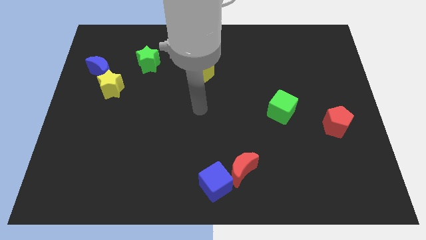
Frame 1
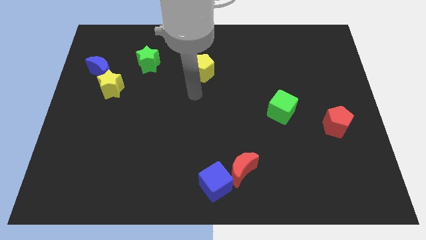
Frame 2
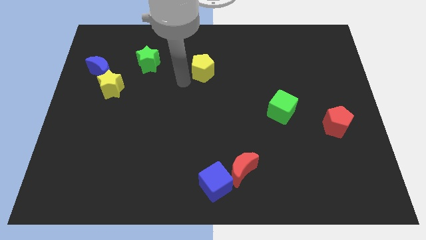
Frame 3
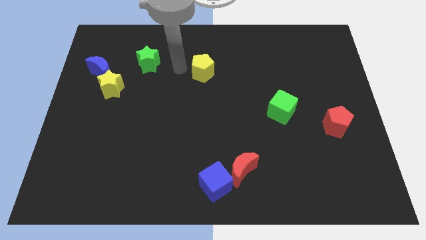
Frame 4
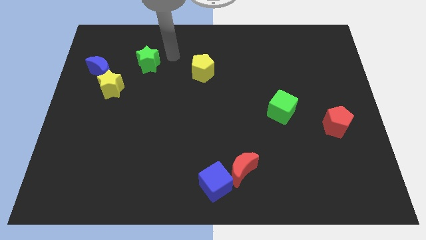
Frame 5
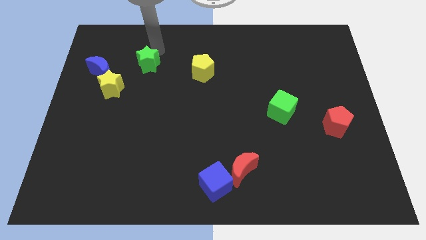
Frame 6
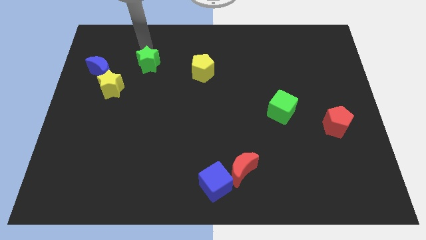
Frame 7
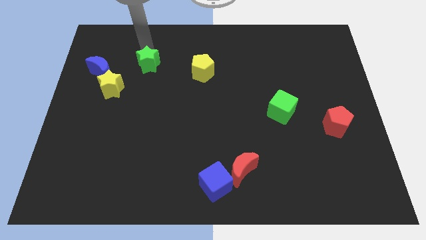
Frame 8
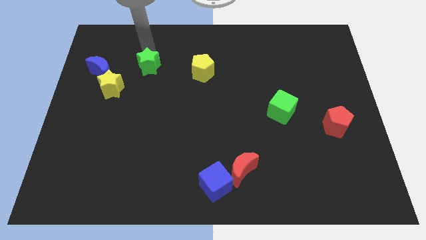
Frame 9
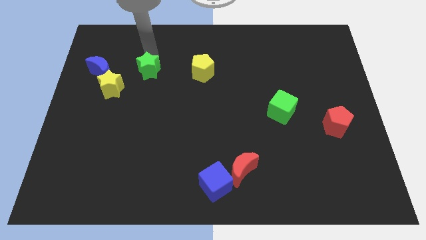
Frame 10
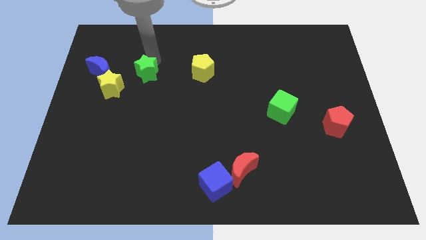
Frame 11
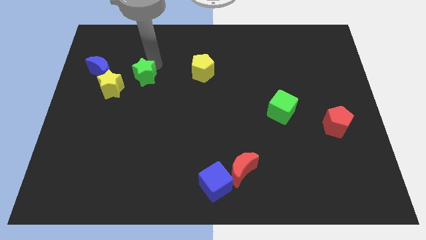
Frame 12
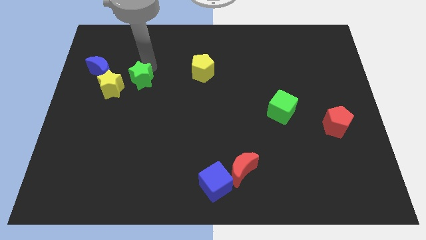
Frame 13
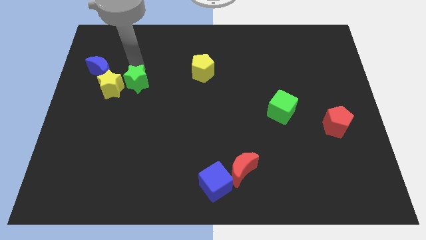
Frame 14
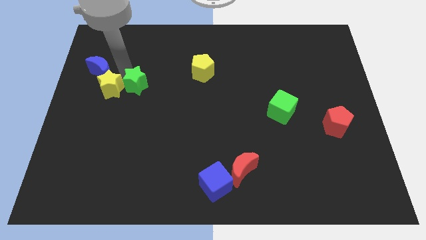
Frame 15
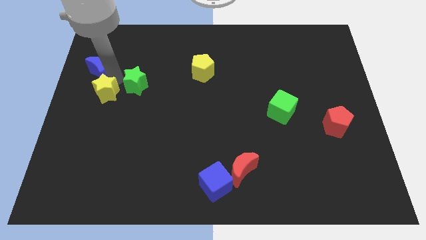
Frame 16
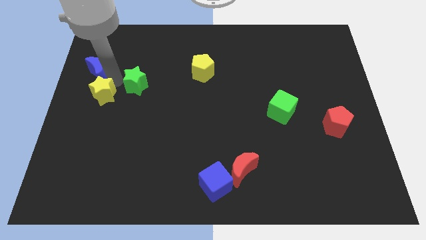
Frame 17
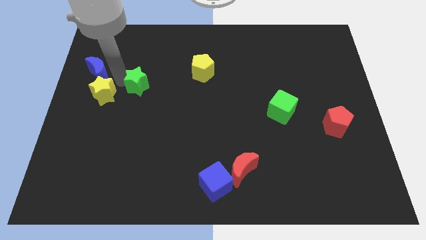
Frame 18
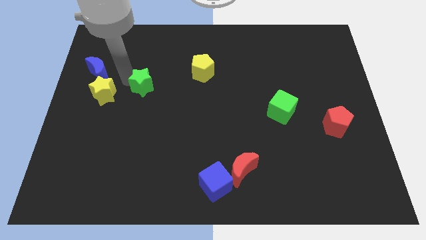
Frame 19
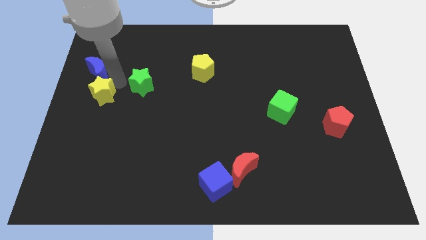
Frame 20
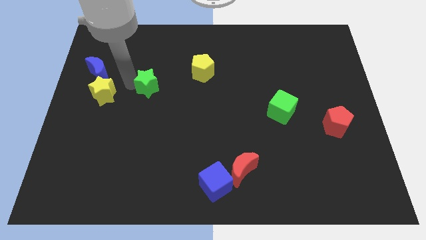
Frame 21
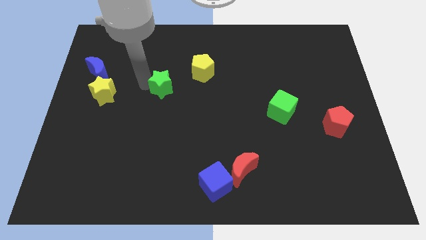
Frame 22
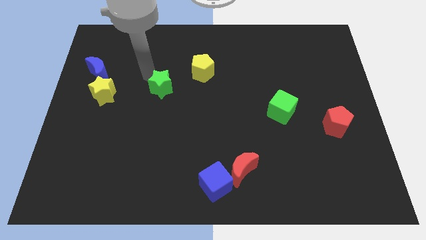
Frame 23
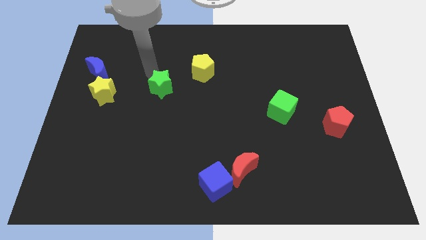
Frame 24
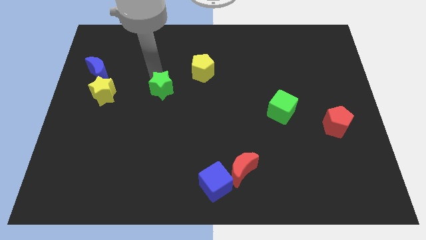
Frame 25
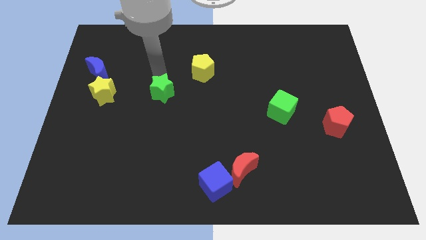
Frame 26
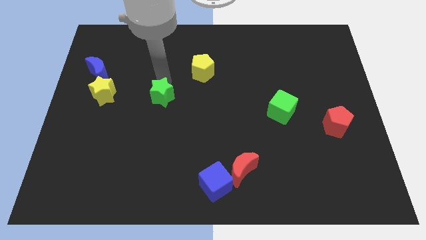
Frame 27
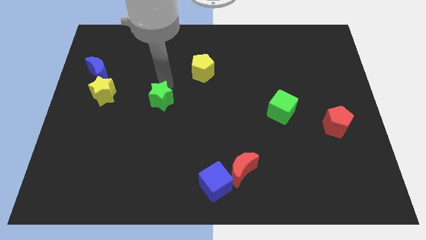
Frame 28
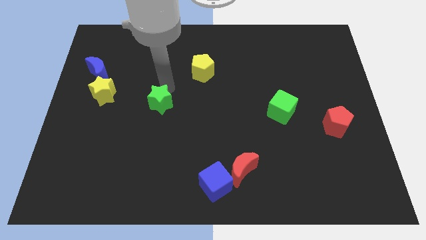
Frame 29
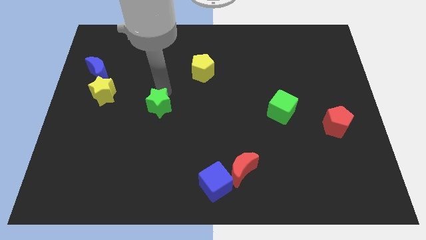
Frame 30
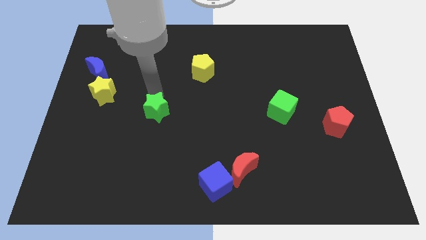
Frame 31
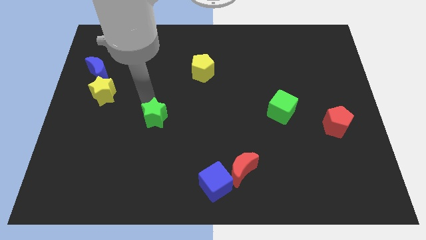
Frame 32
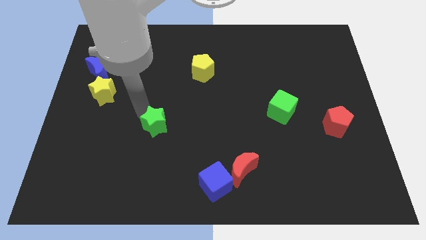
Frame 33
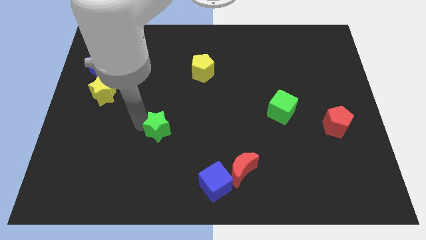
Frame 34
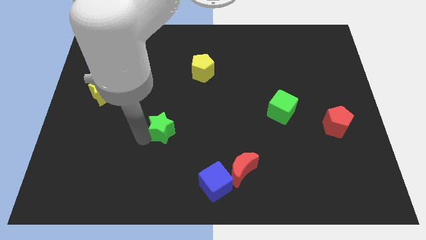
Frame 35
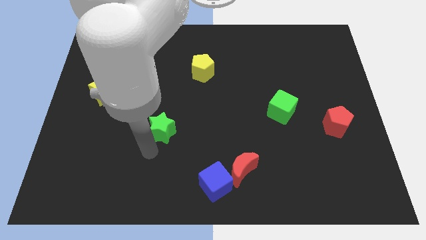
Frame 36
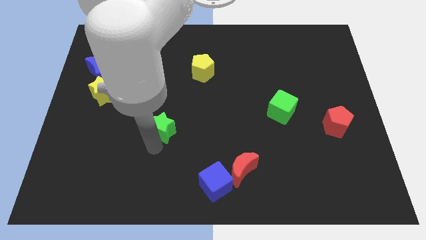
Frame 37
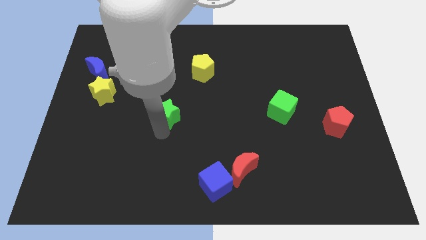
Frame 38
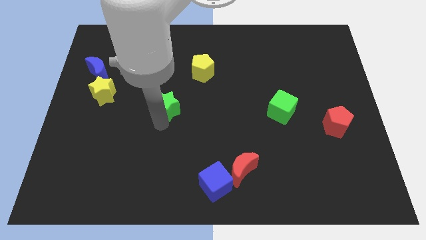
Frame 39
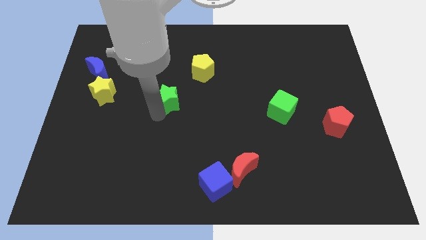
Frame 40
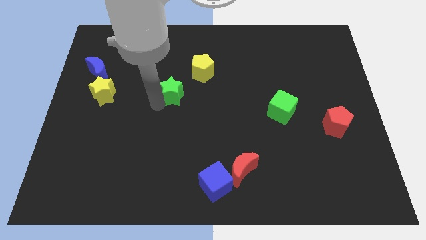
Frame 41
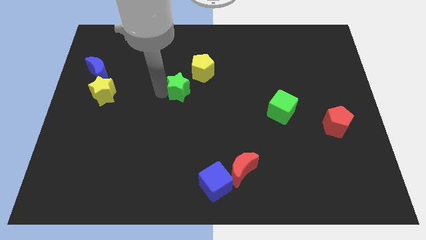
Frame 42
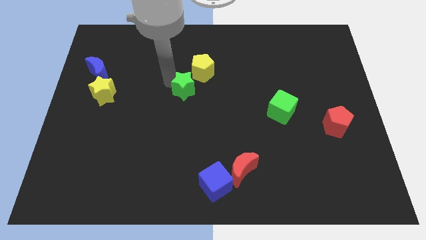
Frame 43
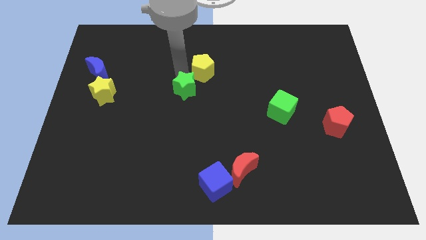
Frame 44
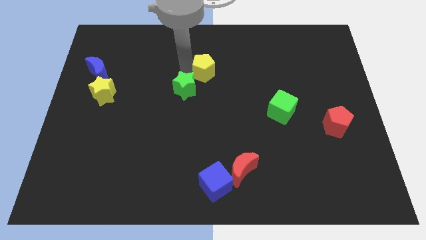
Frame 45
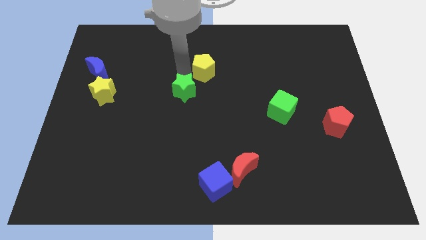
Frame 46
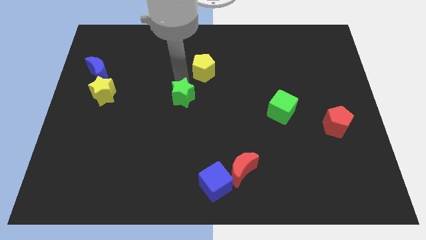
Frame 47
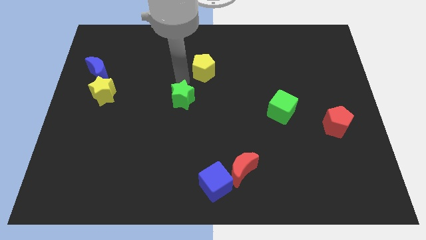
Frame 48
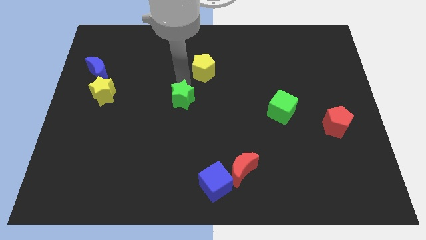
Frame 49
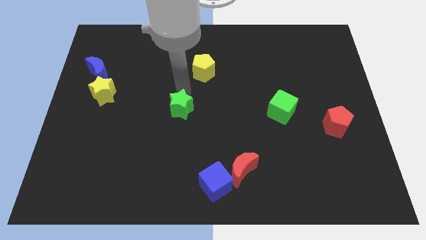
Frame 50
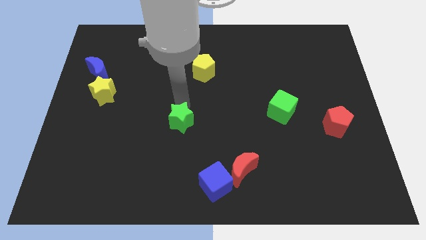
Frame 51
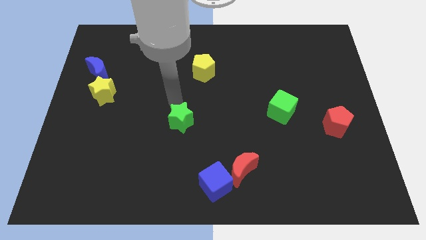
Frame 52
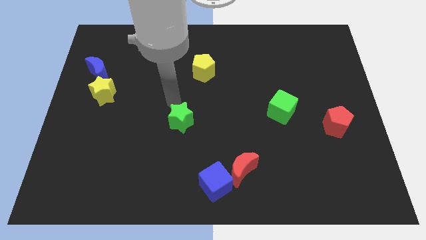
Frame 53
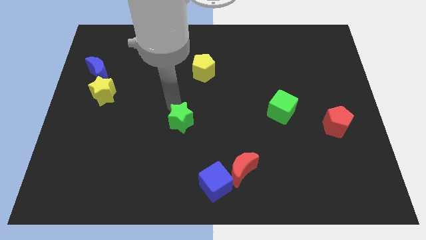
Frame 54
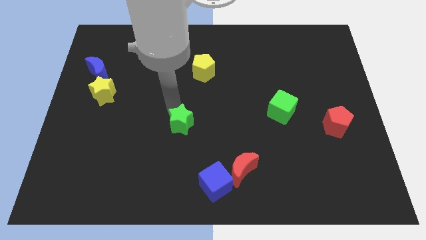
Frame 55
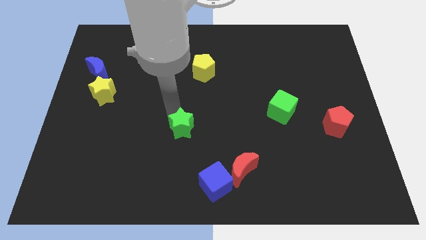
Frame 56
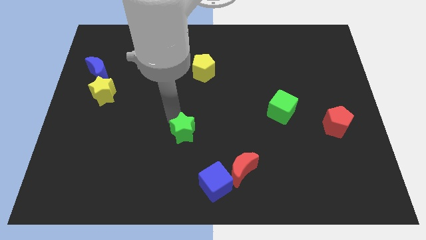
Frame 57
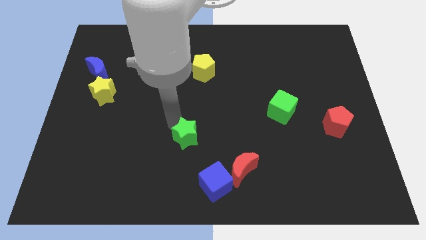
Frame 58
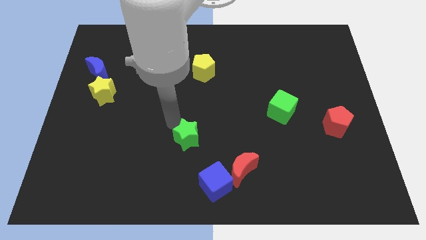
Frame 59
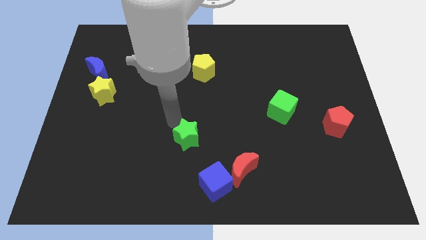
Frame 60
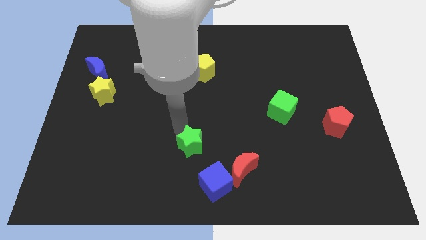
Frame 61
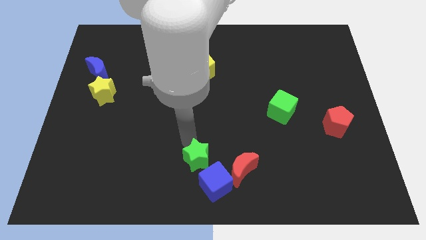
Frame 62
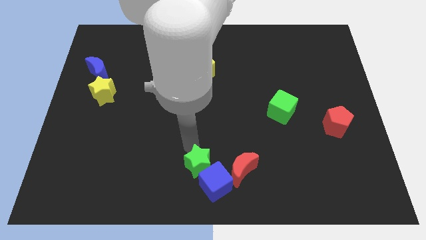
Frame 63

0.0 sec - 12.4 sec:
put the green star next to the blue cube

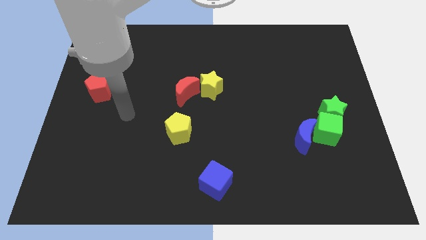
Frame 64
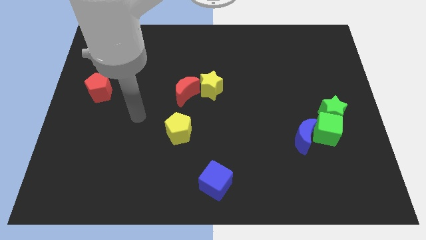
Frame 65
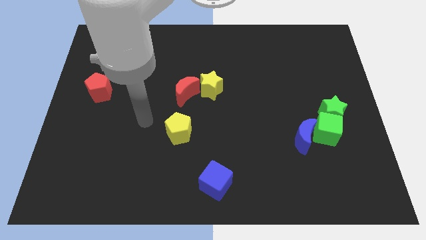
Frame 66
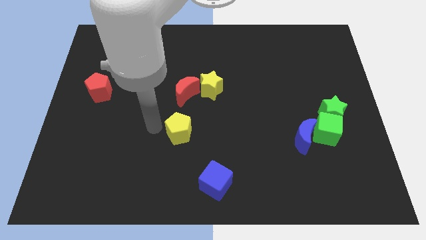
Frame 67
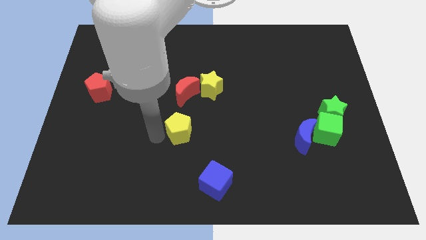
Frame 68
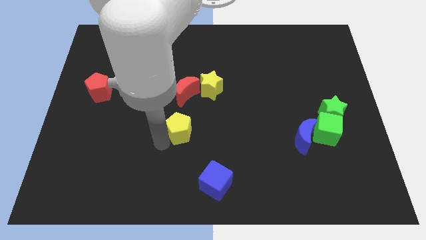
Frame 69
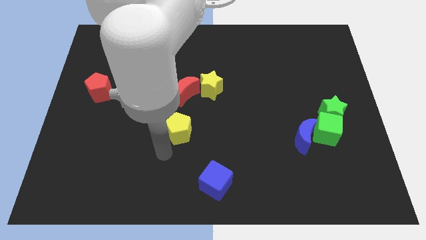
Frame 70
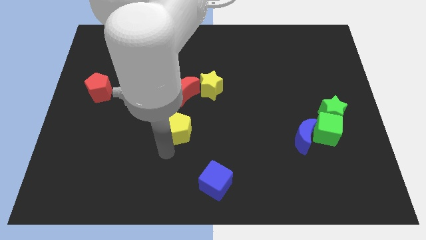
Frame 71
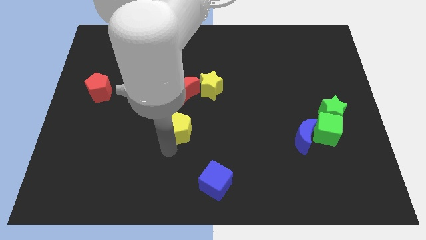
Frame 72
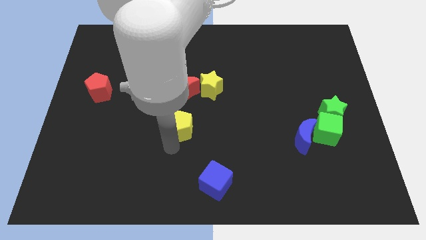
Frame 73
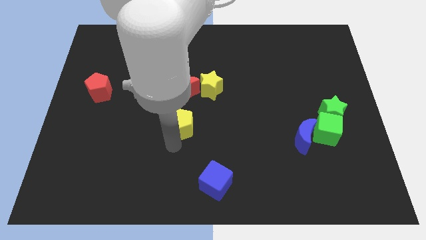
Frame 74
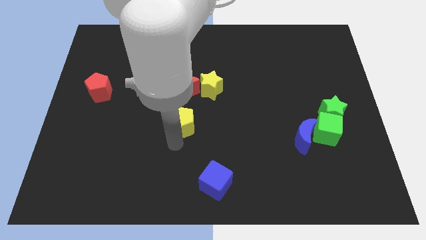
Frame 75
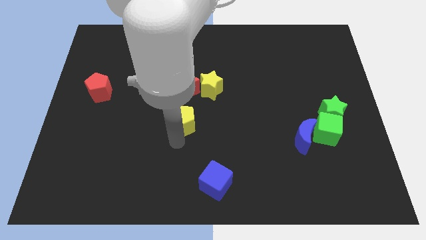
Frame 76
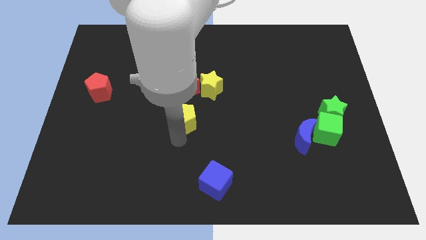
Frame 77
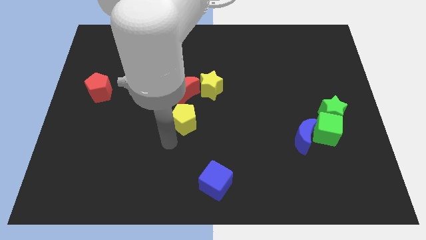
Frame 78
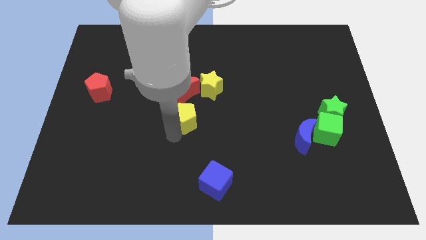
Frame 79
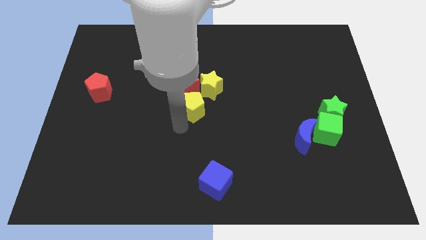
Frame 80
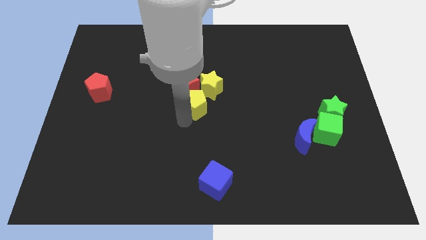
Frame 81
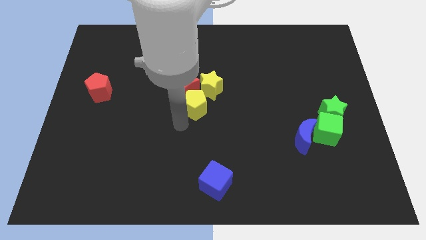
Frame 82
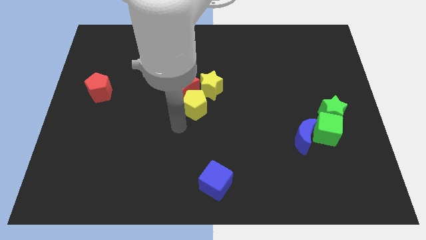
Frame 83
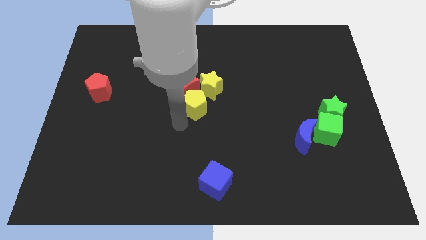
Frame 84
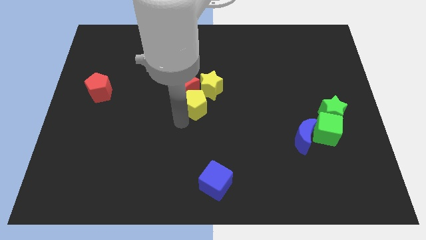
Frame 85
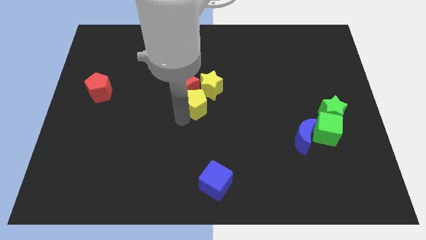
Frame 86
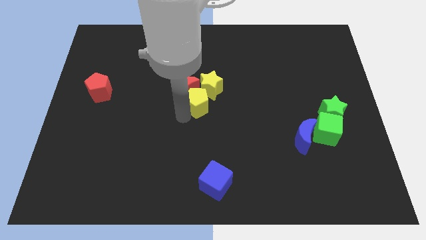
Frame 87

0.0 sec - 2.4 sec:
move the yellow pentagon close to the yellow star
